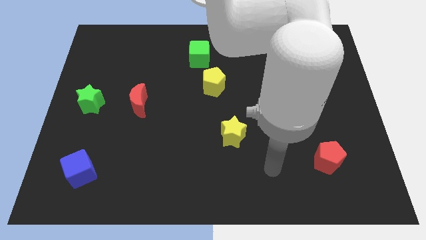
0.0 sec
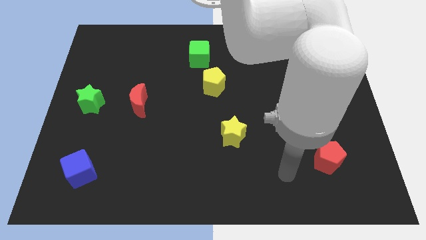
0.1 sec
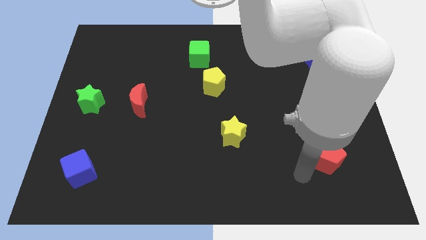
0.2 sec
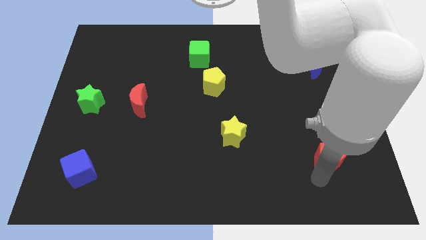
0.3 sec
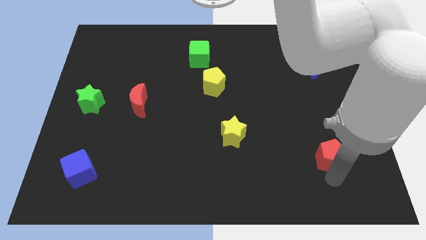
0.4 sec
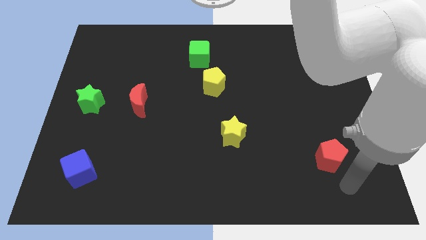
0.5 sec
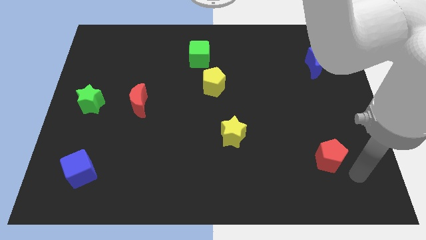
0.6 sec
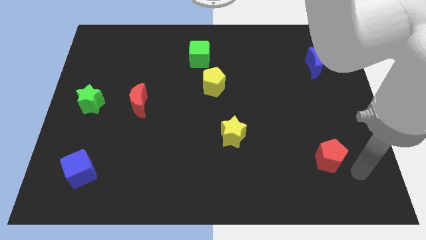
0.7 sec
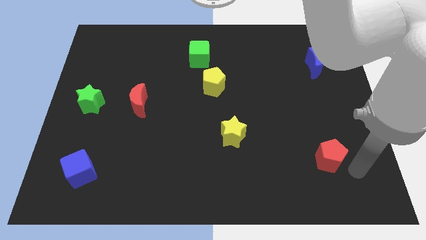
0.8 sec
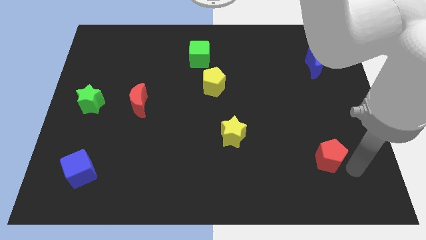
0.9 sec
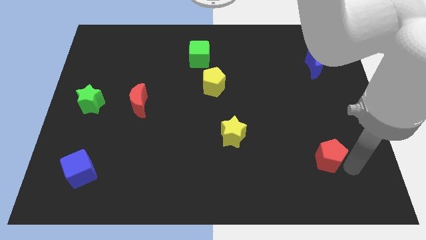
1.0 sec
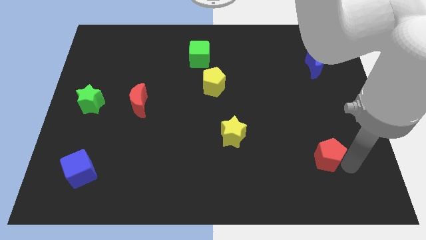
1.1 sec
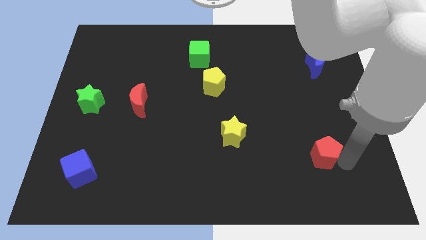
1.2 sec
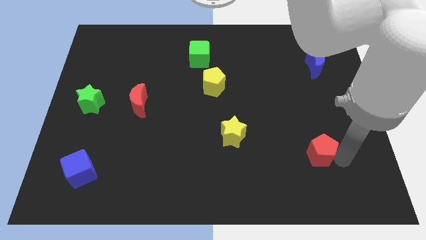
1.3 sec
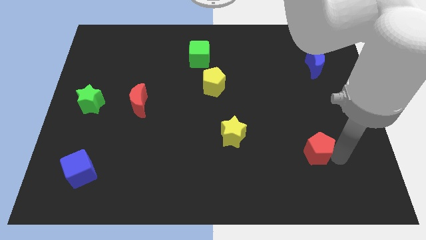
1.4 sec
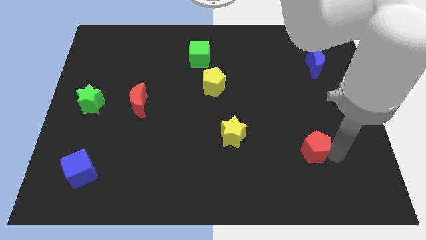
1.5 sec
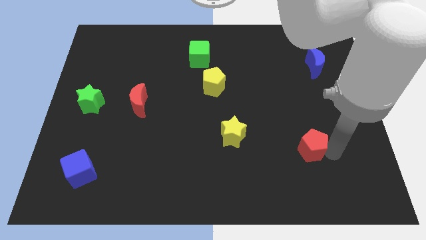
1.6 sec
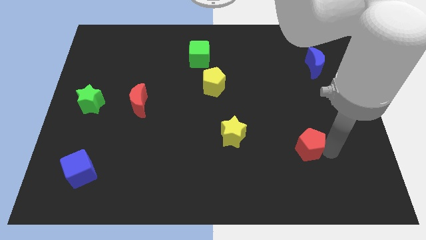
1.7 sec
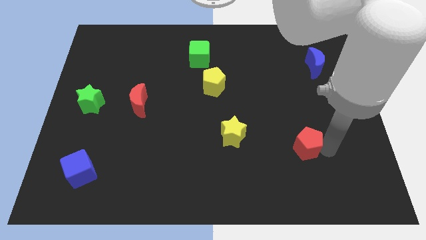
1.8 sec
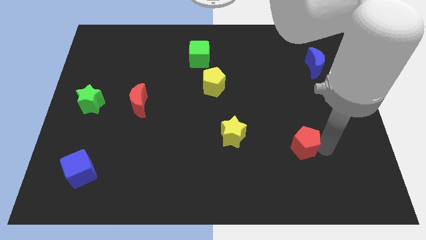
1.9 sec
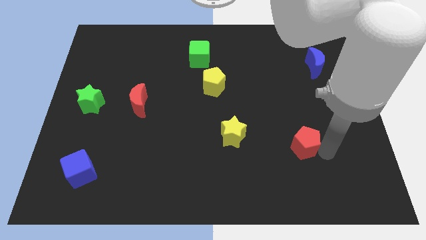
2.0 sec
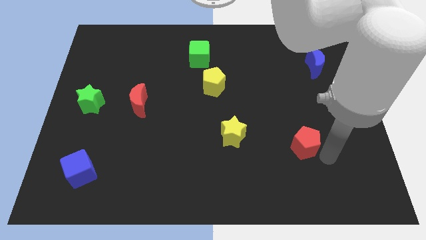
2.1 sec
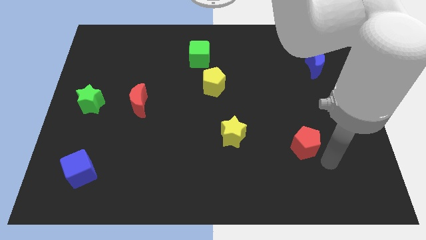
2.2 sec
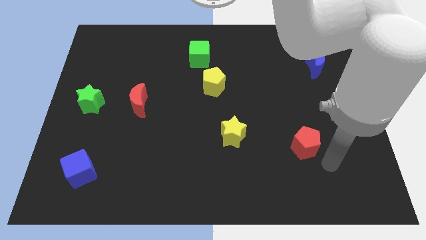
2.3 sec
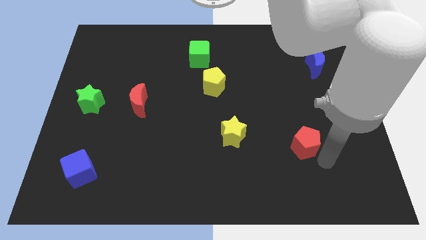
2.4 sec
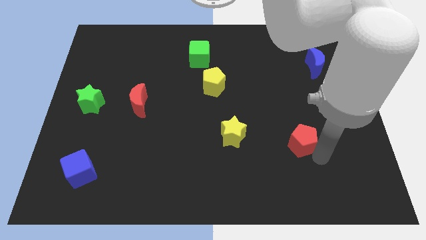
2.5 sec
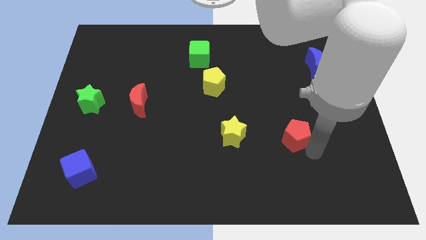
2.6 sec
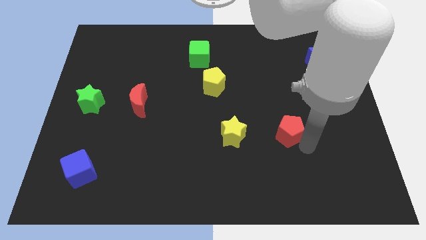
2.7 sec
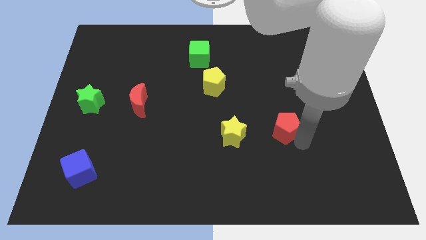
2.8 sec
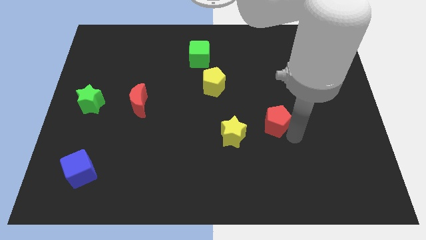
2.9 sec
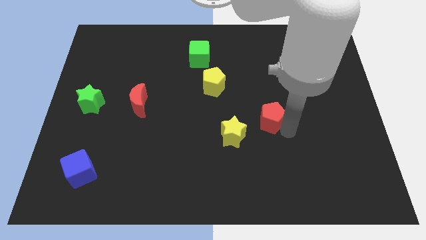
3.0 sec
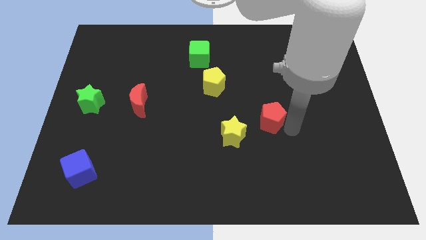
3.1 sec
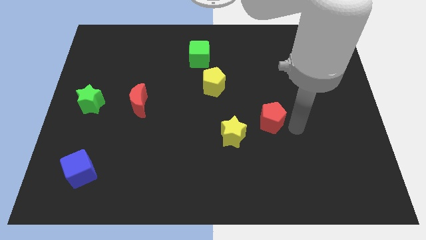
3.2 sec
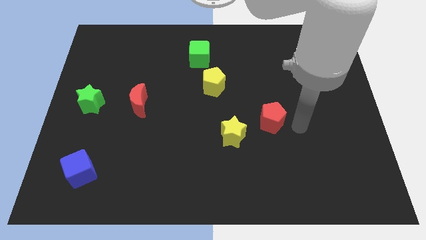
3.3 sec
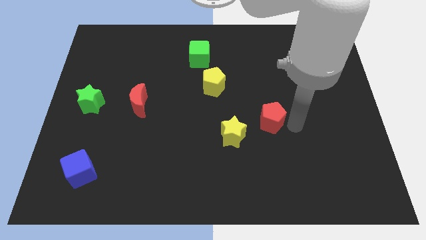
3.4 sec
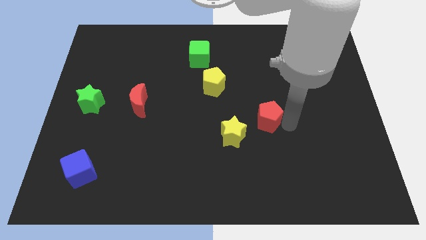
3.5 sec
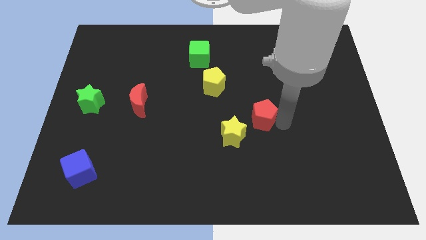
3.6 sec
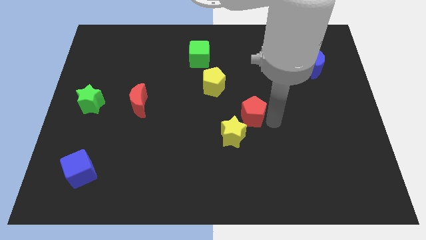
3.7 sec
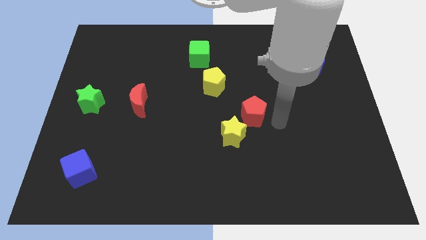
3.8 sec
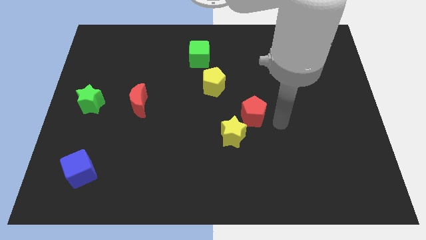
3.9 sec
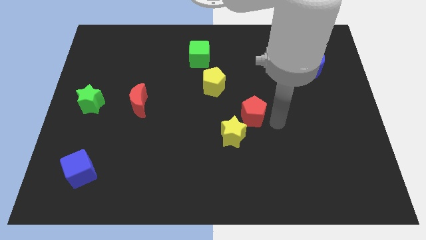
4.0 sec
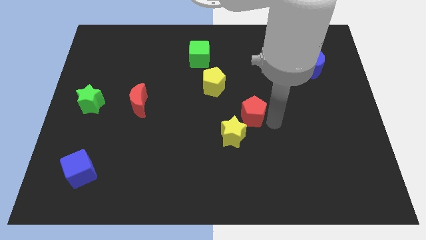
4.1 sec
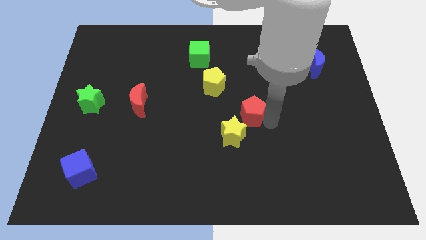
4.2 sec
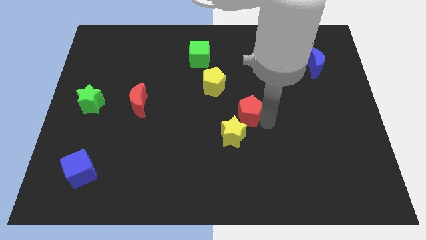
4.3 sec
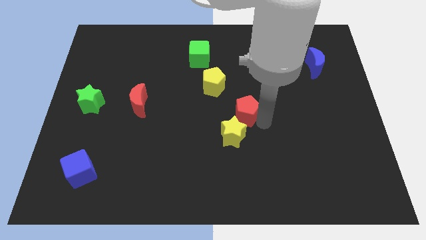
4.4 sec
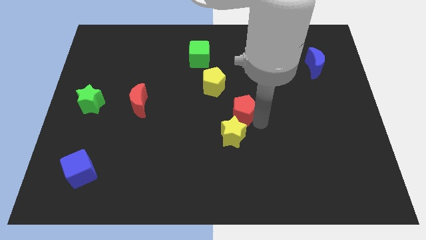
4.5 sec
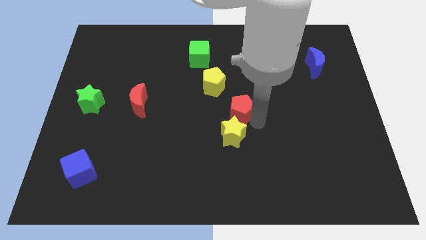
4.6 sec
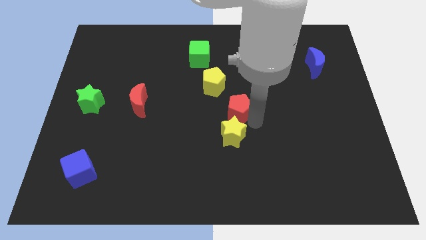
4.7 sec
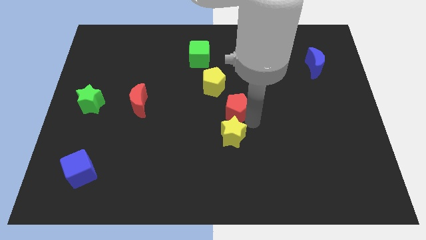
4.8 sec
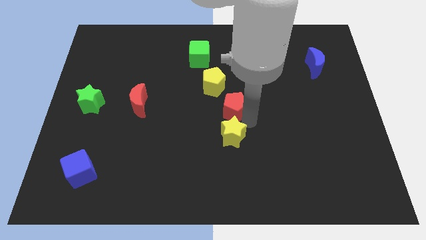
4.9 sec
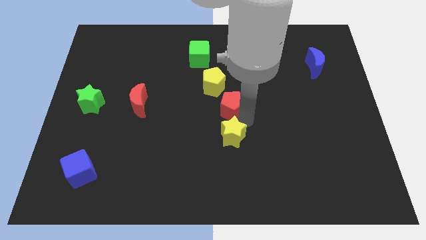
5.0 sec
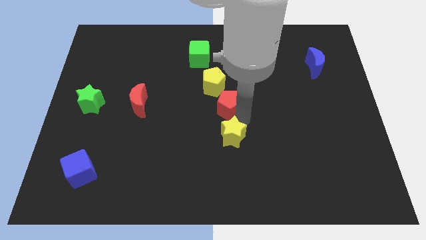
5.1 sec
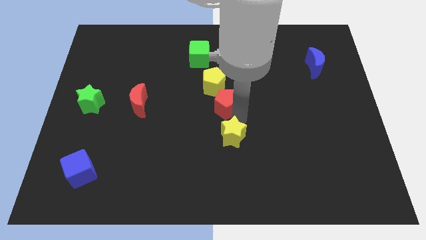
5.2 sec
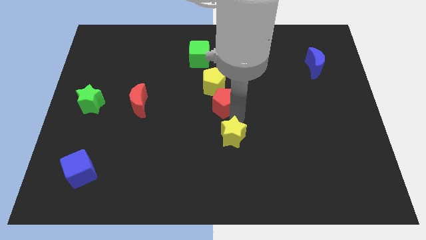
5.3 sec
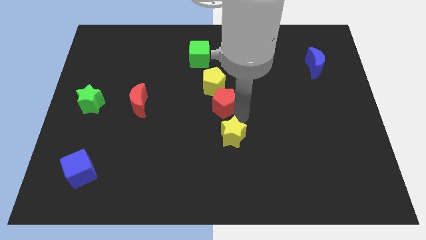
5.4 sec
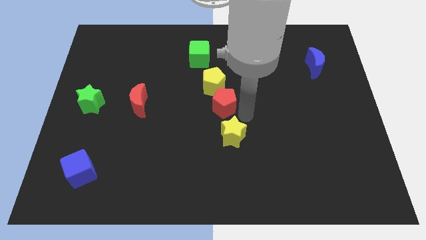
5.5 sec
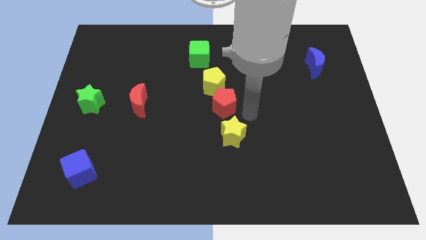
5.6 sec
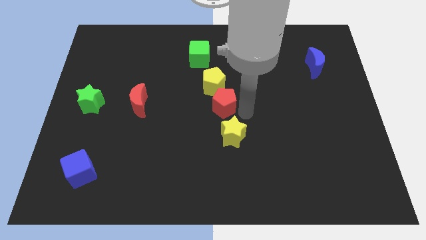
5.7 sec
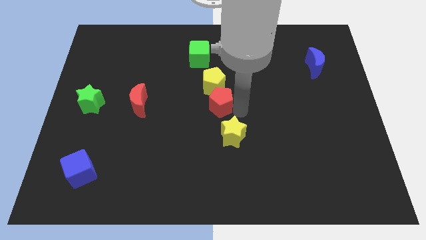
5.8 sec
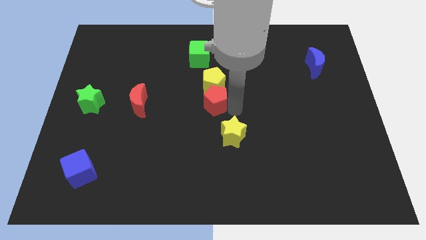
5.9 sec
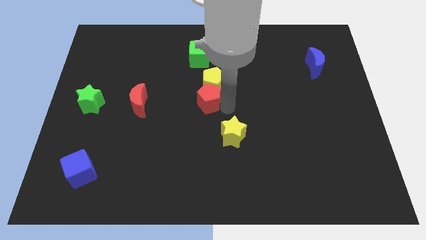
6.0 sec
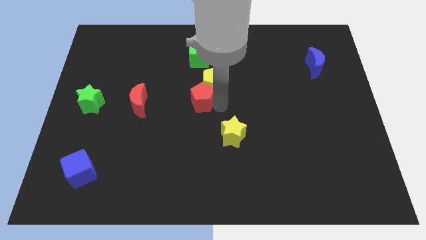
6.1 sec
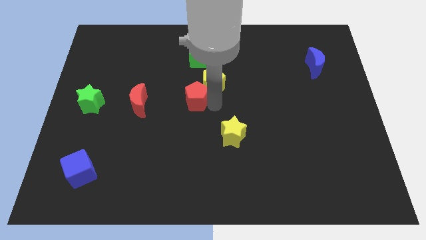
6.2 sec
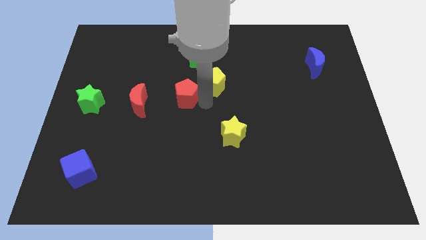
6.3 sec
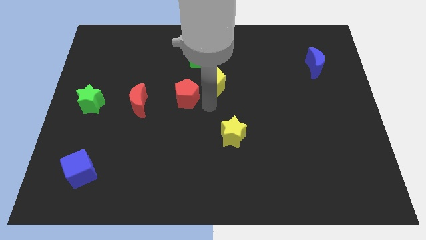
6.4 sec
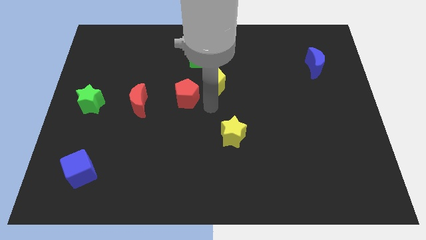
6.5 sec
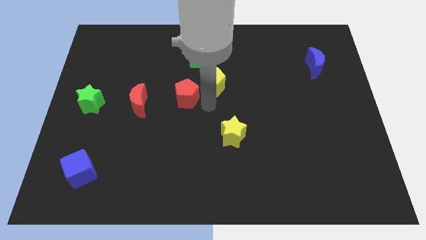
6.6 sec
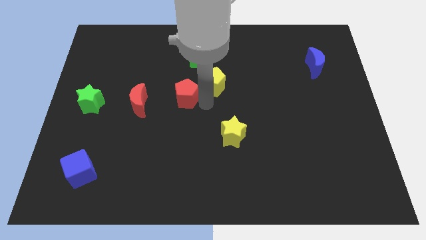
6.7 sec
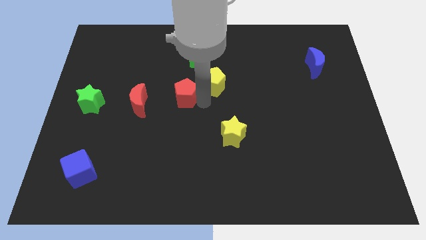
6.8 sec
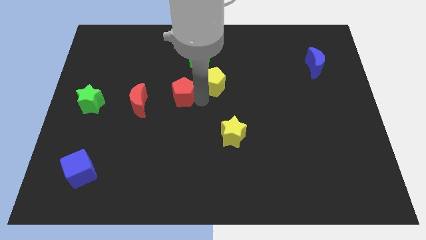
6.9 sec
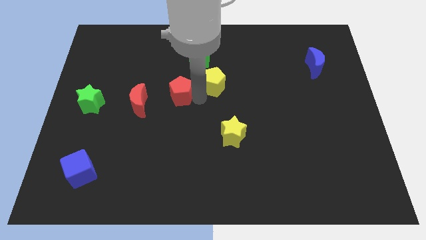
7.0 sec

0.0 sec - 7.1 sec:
move the red pentagon to the top right of the red moon
